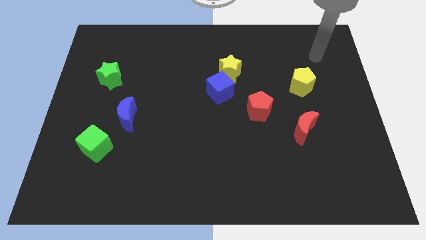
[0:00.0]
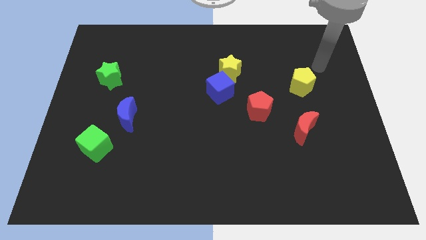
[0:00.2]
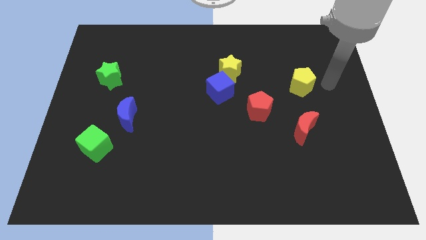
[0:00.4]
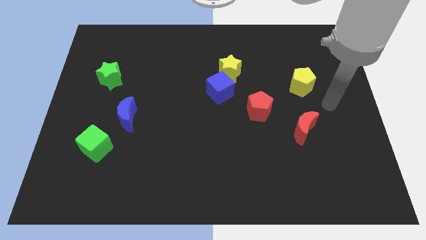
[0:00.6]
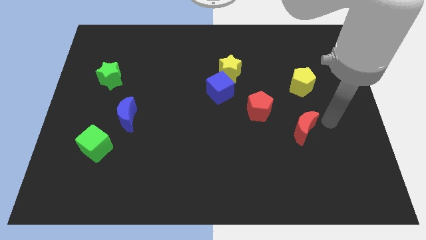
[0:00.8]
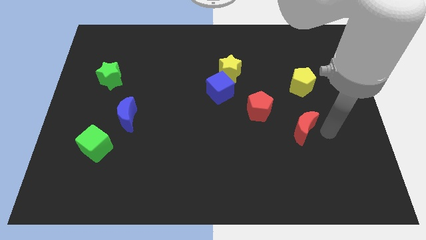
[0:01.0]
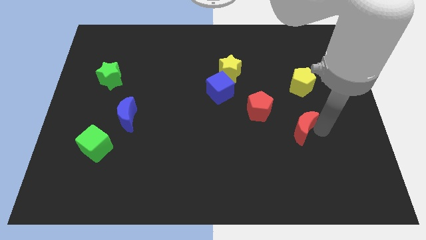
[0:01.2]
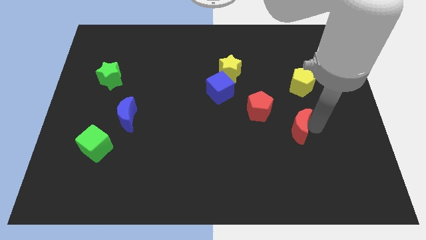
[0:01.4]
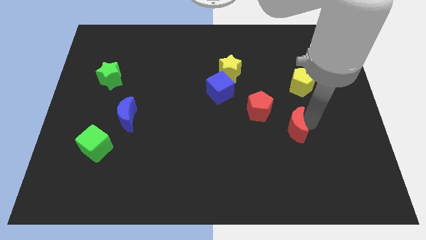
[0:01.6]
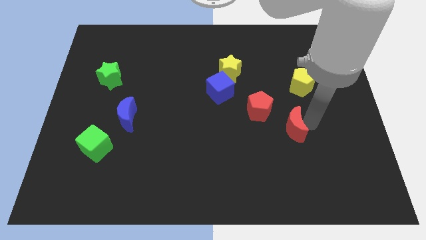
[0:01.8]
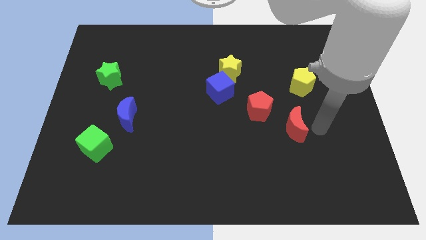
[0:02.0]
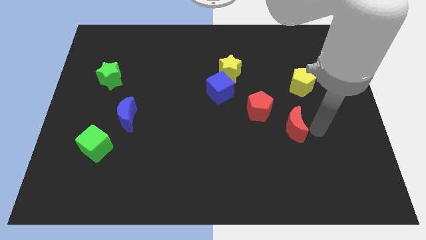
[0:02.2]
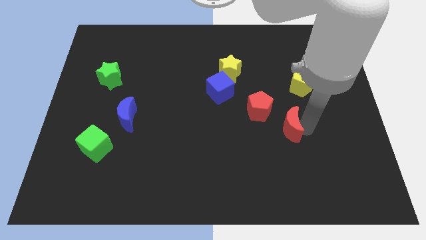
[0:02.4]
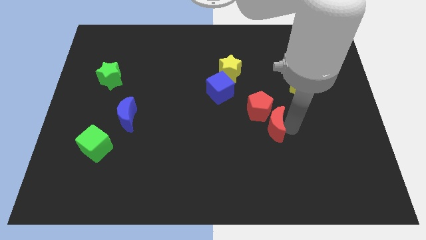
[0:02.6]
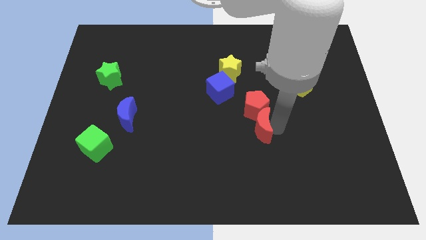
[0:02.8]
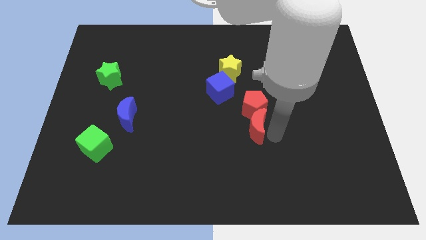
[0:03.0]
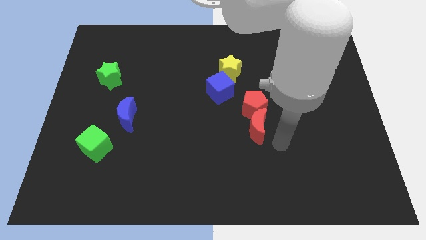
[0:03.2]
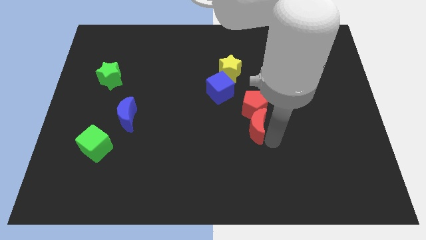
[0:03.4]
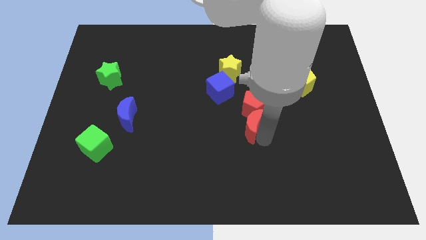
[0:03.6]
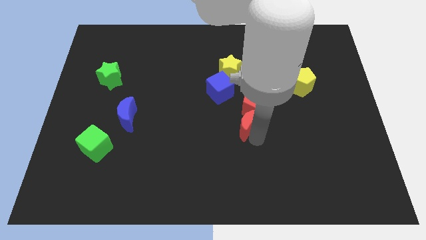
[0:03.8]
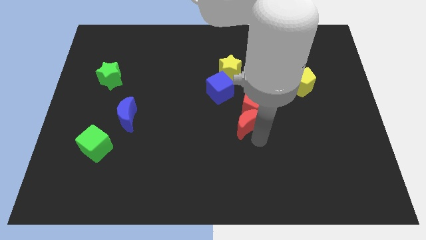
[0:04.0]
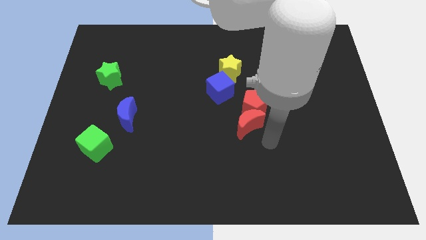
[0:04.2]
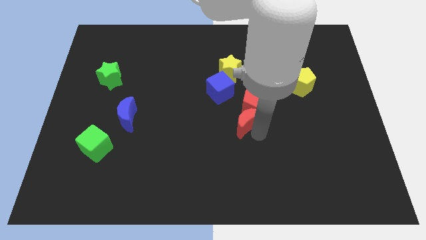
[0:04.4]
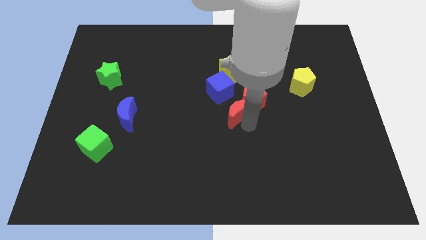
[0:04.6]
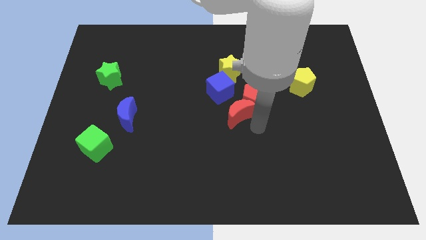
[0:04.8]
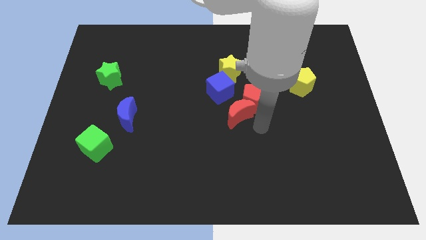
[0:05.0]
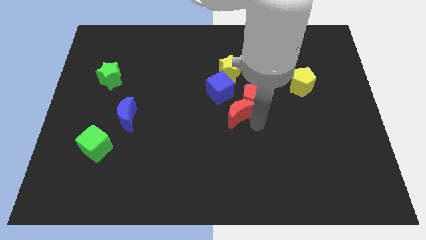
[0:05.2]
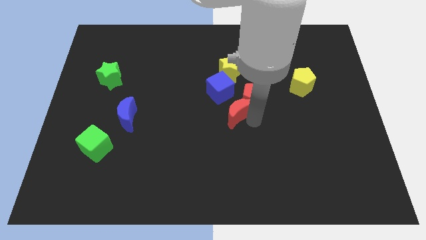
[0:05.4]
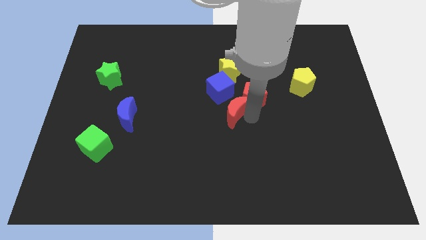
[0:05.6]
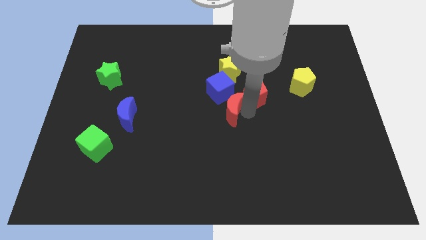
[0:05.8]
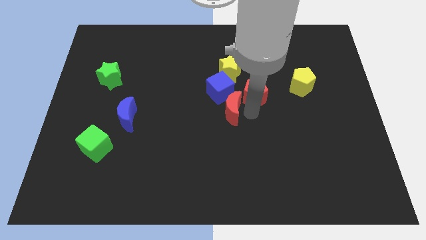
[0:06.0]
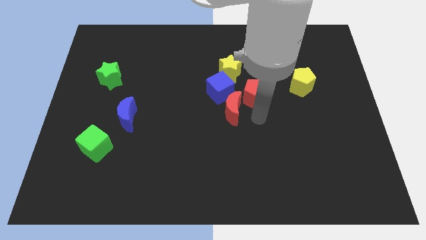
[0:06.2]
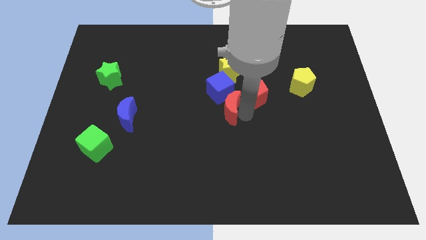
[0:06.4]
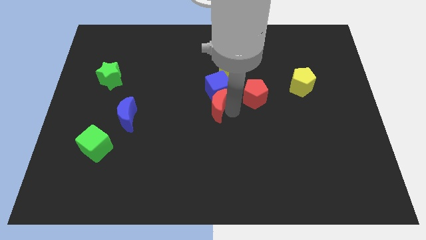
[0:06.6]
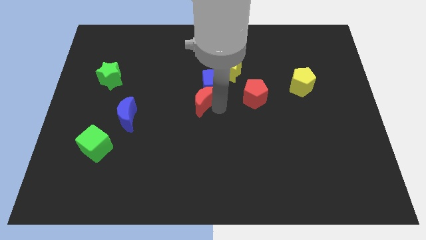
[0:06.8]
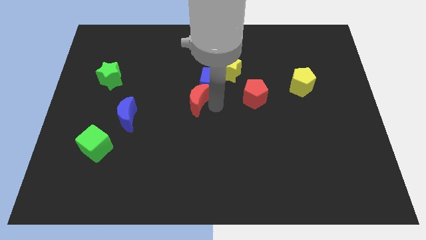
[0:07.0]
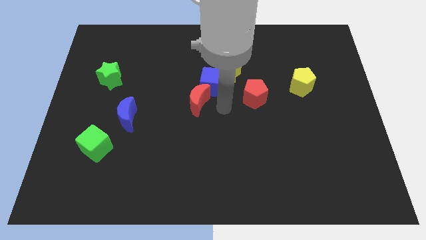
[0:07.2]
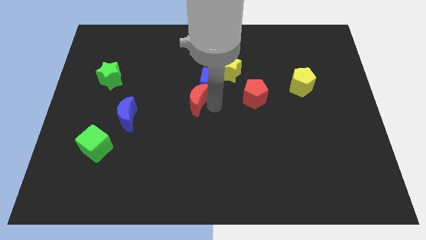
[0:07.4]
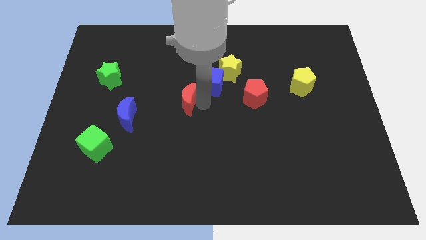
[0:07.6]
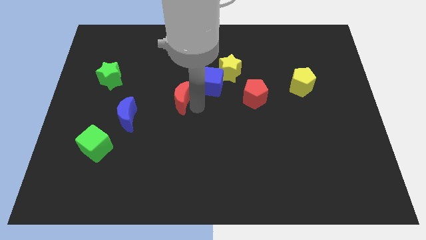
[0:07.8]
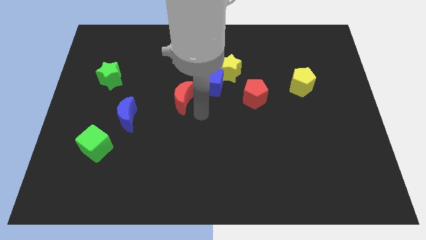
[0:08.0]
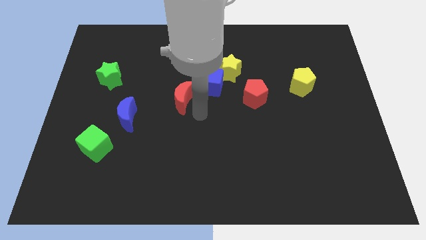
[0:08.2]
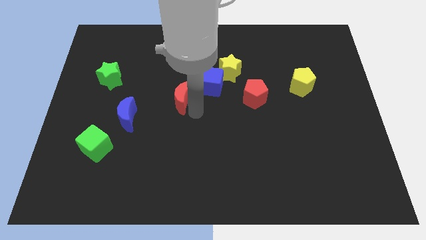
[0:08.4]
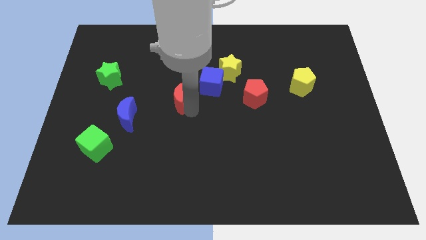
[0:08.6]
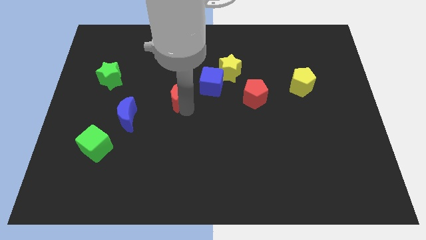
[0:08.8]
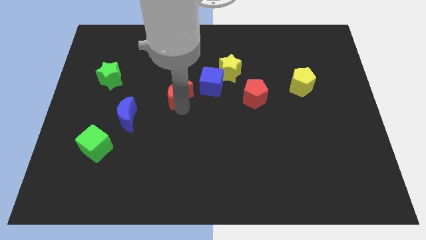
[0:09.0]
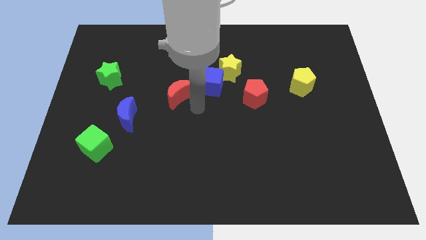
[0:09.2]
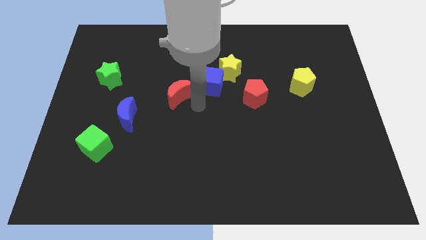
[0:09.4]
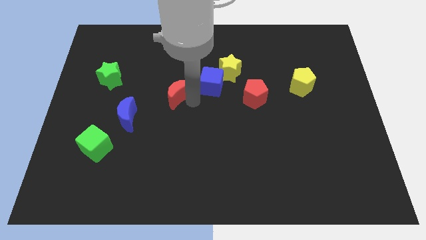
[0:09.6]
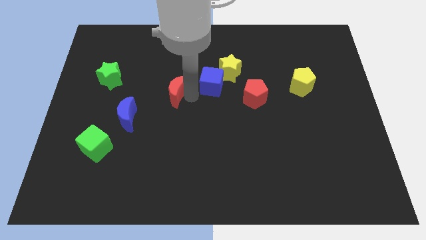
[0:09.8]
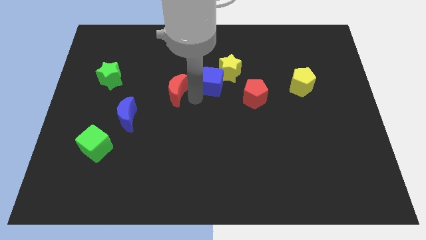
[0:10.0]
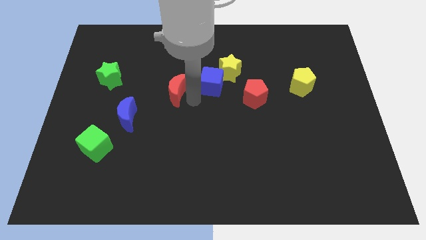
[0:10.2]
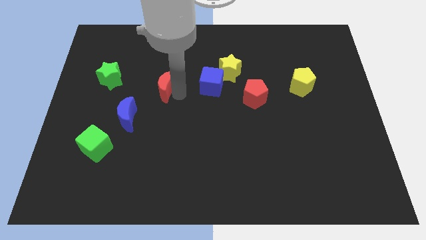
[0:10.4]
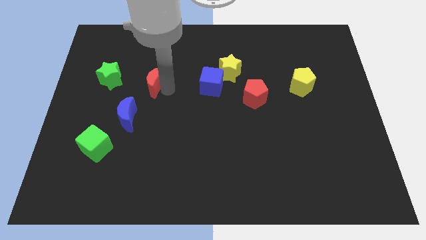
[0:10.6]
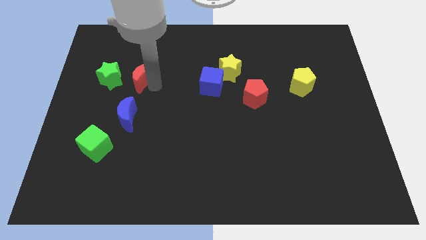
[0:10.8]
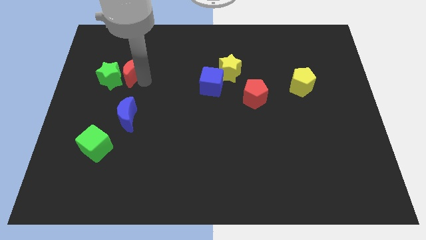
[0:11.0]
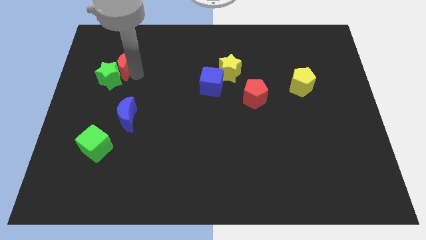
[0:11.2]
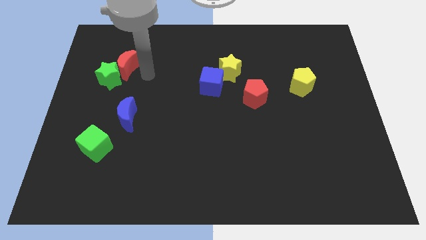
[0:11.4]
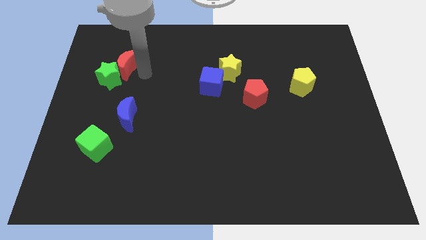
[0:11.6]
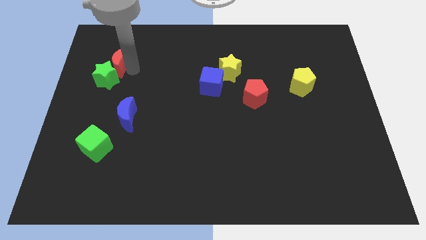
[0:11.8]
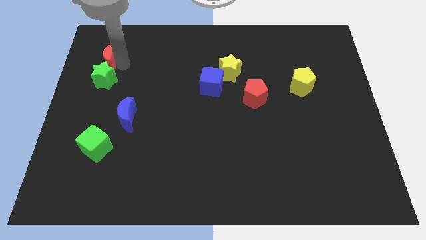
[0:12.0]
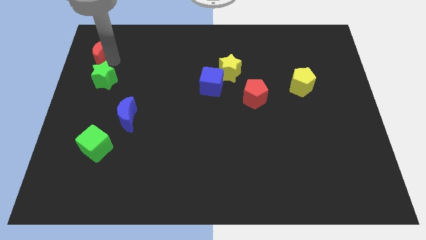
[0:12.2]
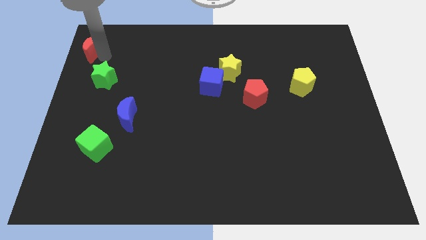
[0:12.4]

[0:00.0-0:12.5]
move the red moon to the top left of the board

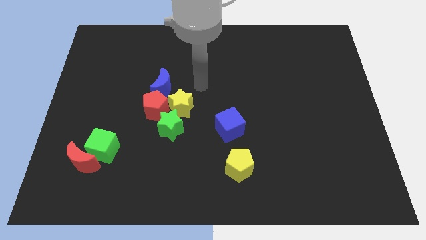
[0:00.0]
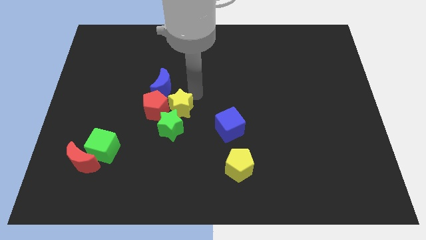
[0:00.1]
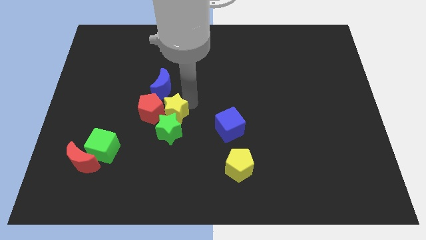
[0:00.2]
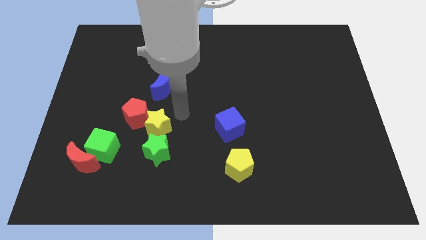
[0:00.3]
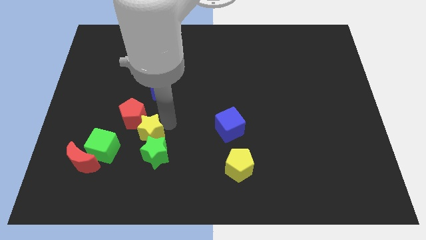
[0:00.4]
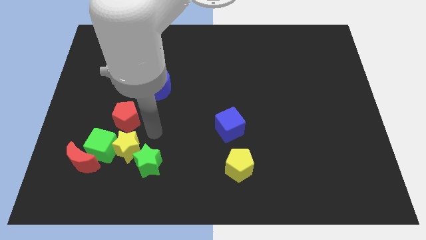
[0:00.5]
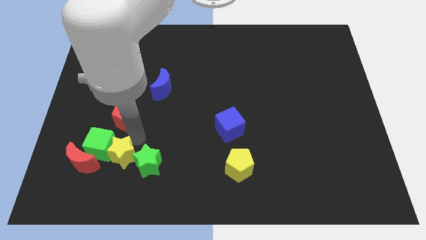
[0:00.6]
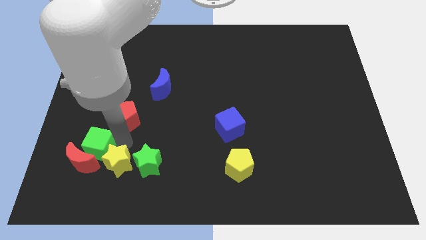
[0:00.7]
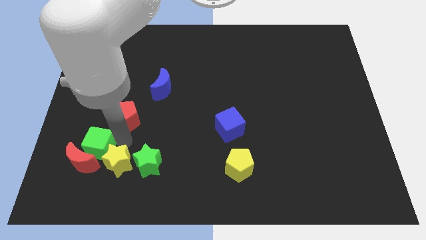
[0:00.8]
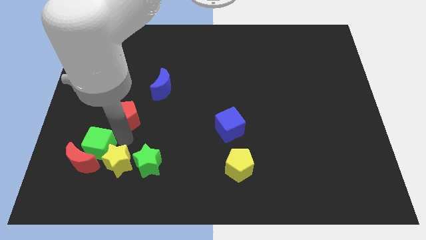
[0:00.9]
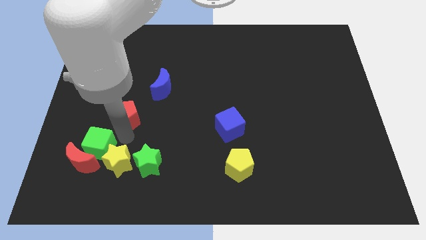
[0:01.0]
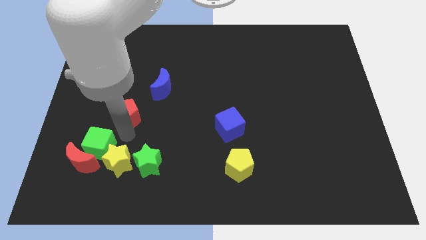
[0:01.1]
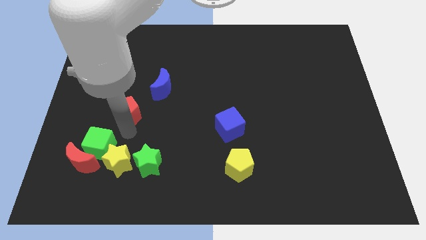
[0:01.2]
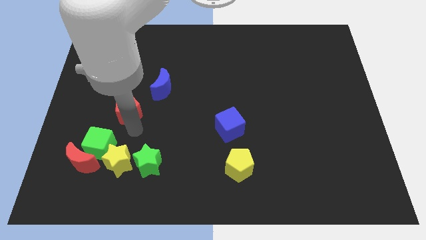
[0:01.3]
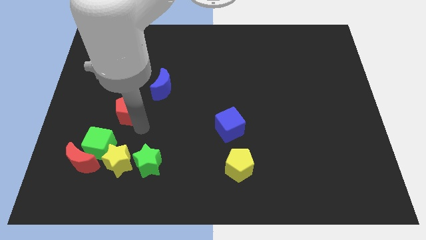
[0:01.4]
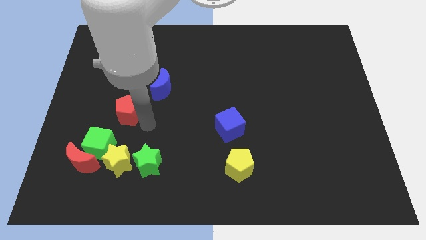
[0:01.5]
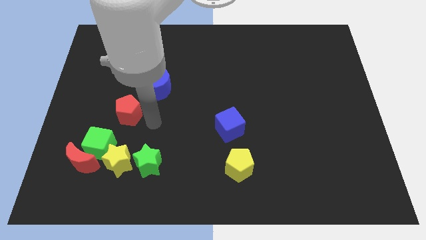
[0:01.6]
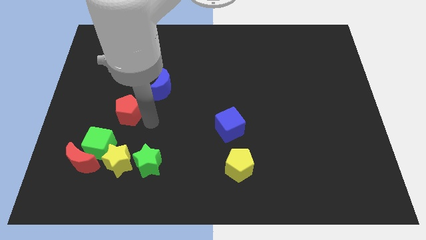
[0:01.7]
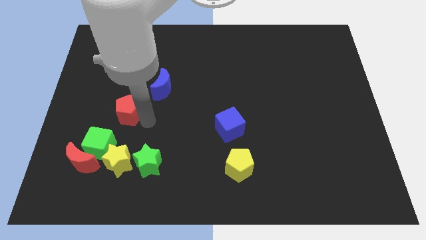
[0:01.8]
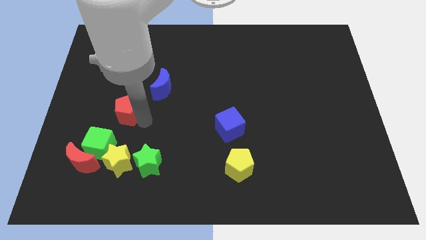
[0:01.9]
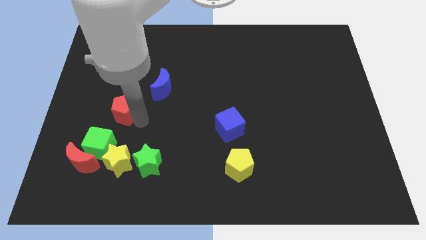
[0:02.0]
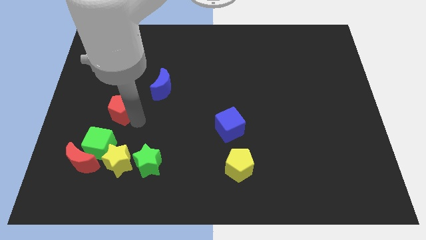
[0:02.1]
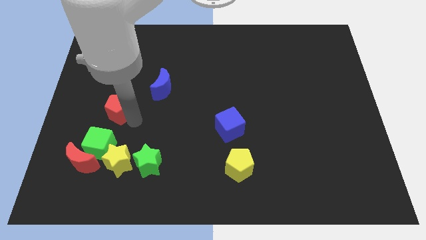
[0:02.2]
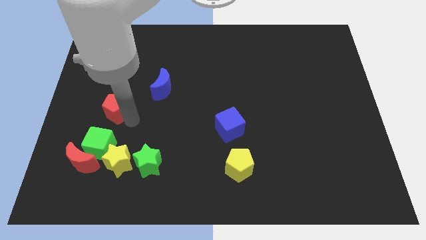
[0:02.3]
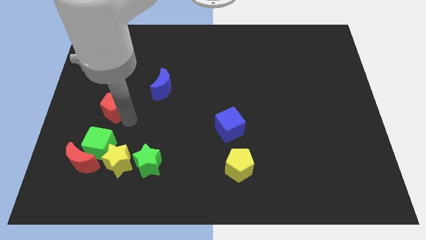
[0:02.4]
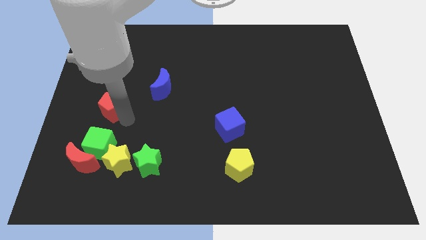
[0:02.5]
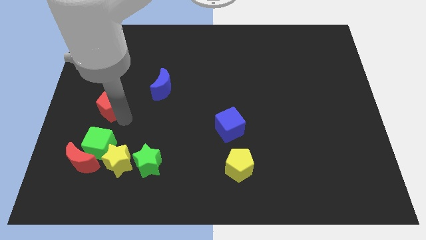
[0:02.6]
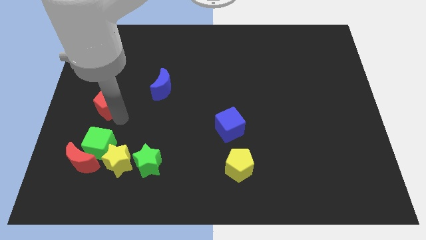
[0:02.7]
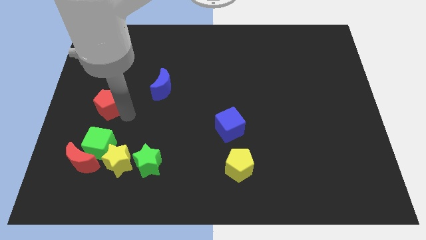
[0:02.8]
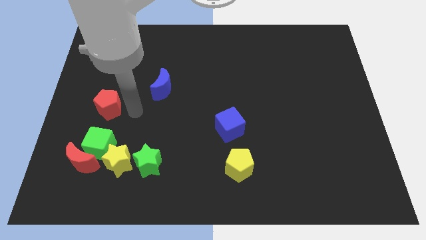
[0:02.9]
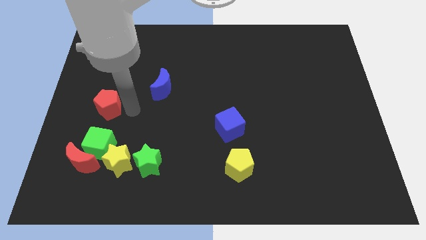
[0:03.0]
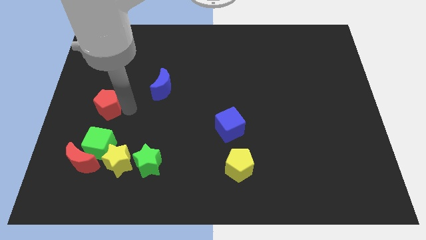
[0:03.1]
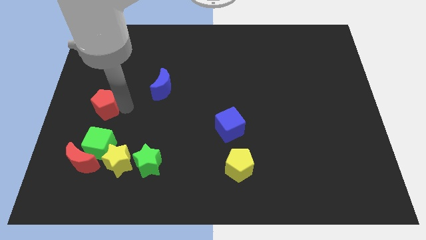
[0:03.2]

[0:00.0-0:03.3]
put the red pentagon to the left side
